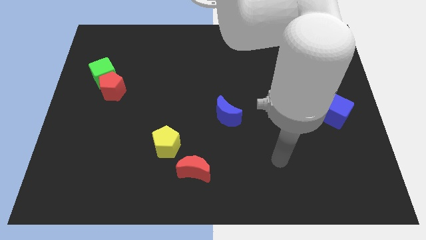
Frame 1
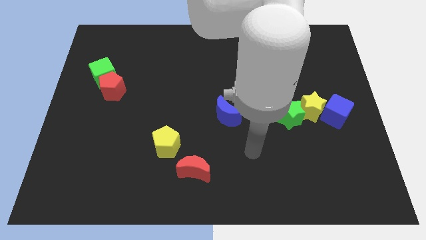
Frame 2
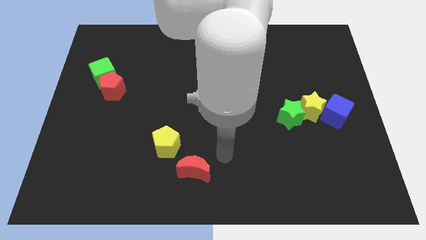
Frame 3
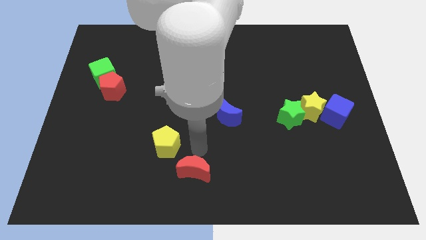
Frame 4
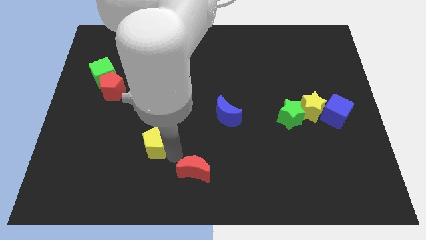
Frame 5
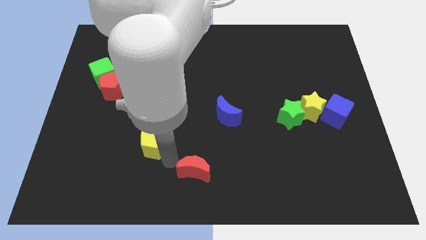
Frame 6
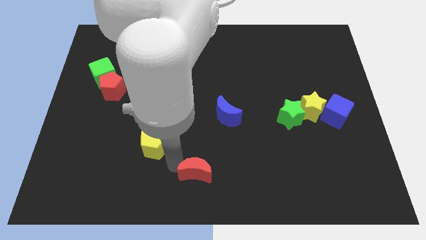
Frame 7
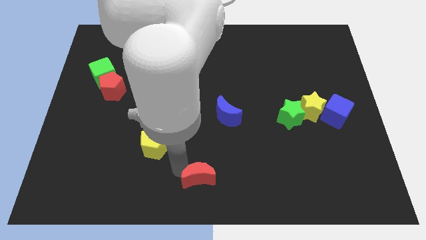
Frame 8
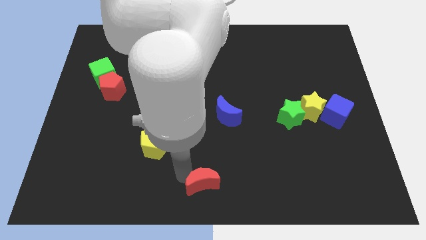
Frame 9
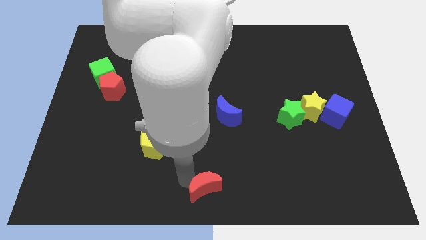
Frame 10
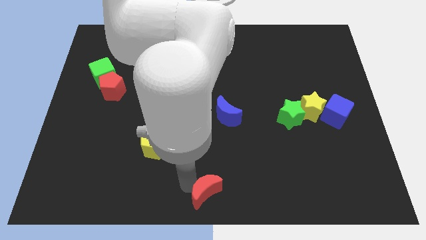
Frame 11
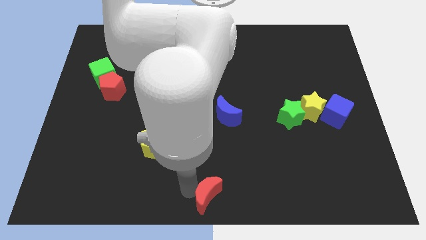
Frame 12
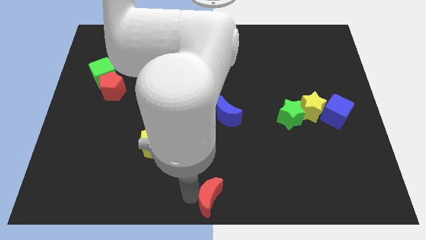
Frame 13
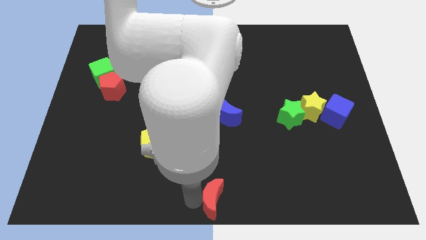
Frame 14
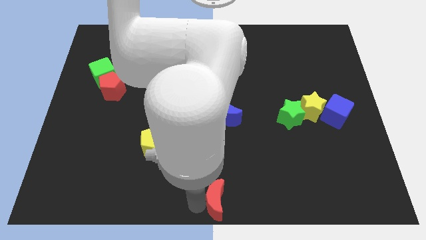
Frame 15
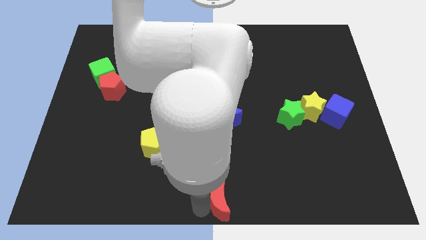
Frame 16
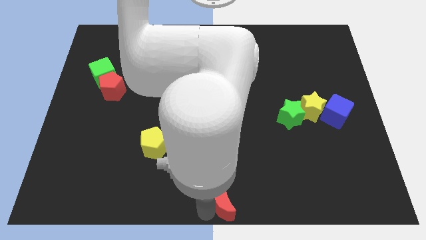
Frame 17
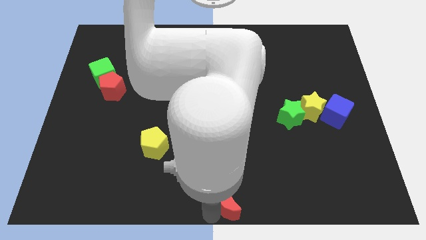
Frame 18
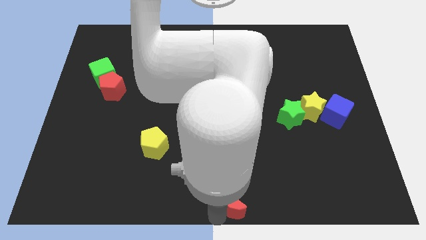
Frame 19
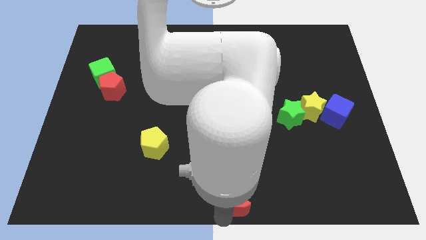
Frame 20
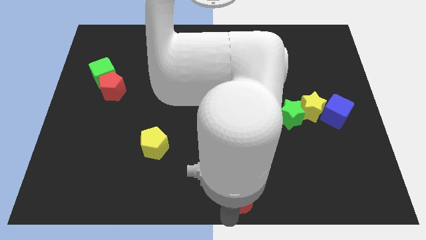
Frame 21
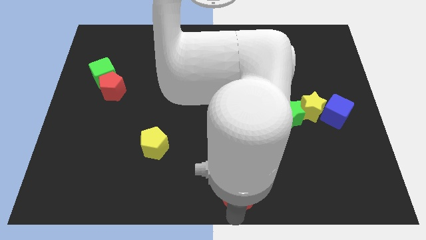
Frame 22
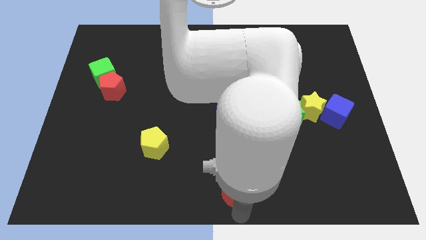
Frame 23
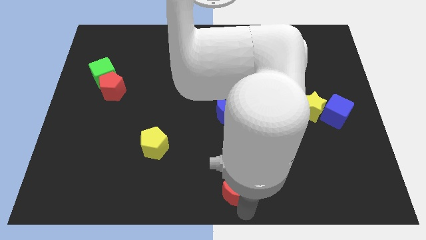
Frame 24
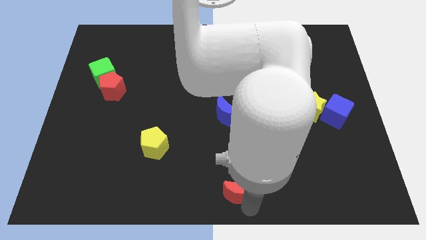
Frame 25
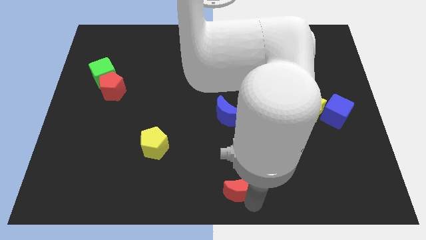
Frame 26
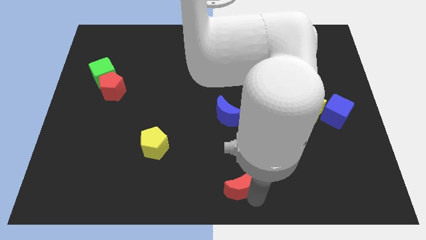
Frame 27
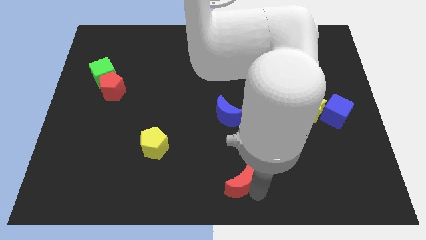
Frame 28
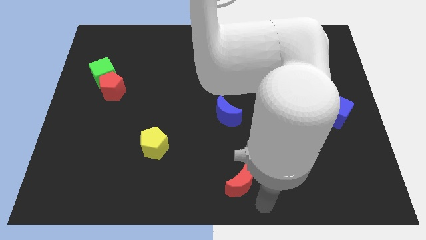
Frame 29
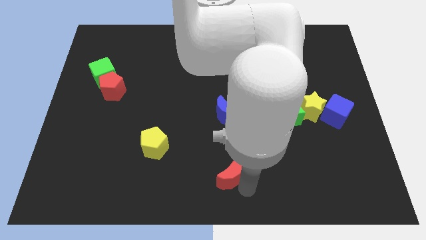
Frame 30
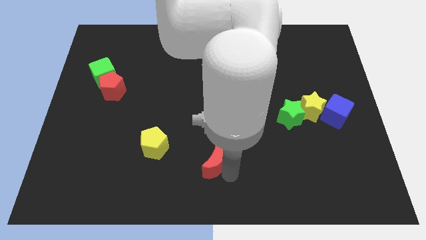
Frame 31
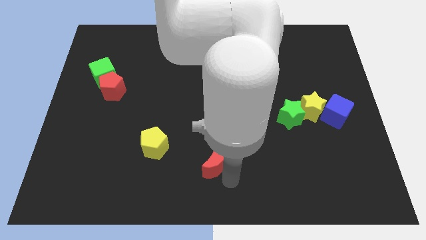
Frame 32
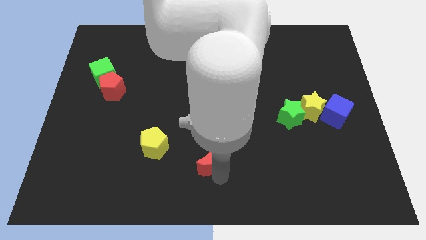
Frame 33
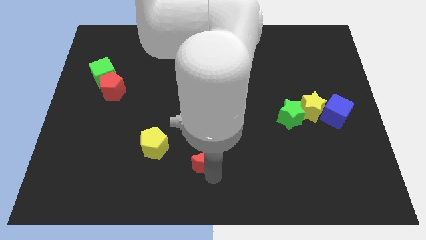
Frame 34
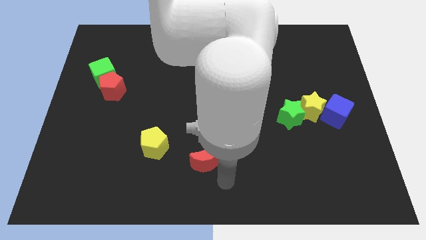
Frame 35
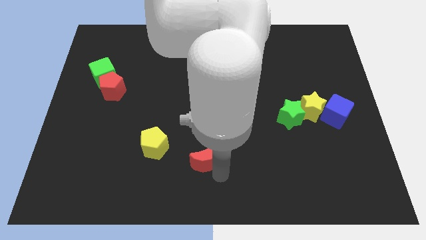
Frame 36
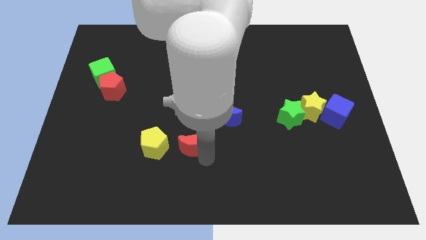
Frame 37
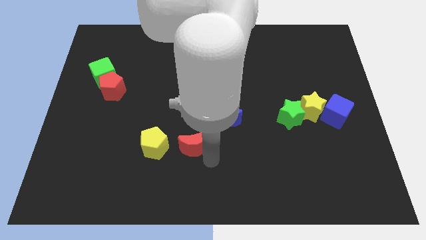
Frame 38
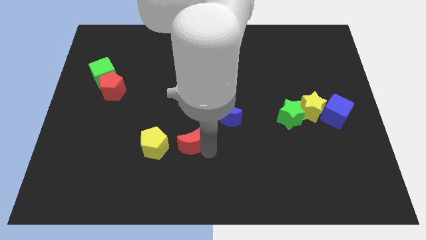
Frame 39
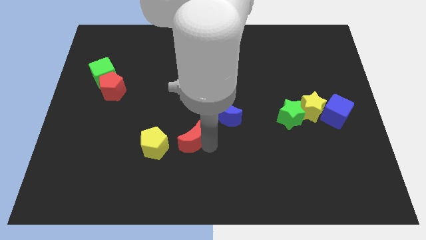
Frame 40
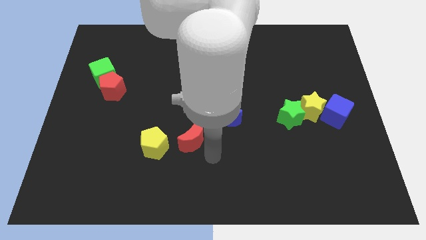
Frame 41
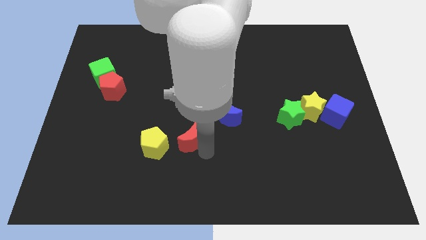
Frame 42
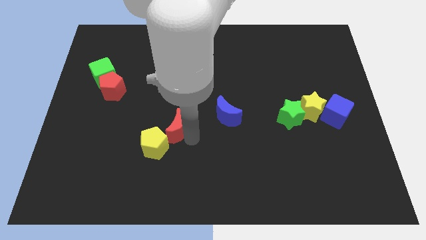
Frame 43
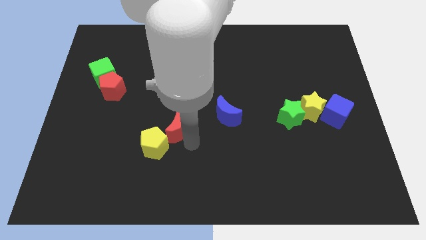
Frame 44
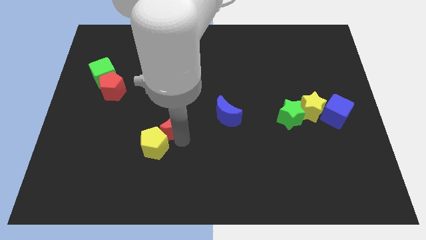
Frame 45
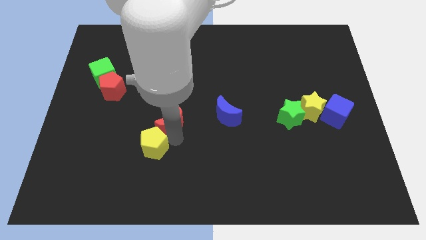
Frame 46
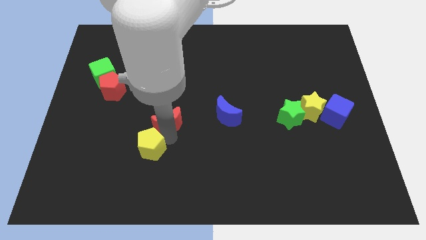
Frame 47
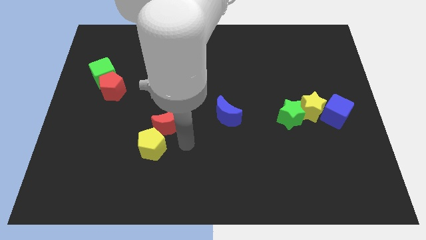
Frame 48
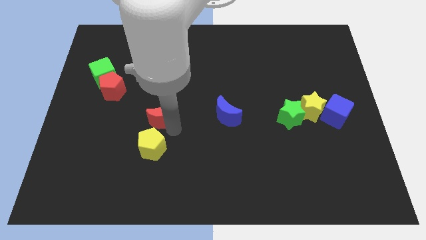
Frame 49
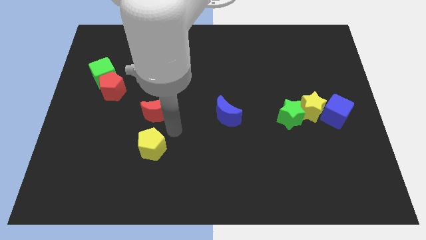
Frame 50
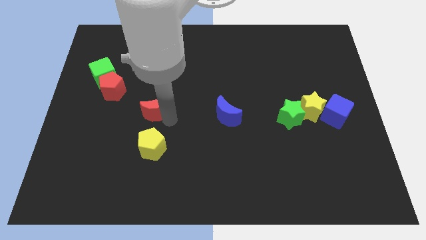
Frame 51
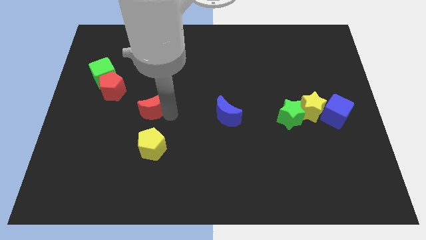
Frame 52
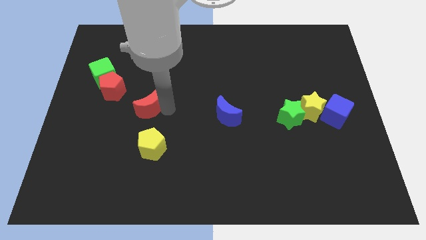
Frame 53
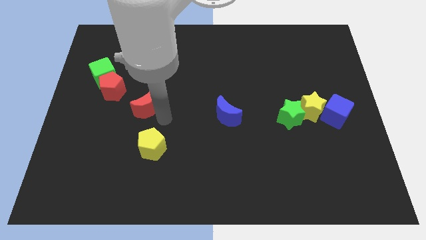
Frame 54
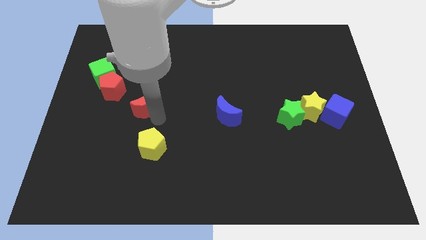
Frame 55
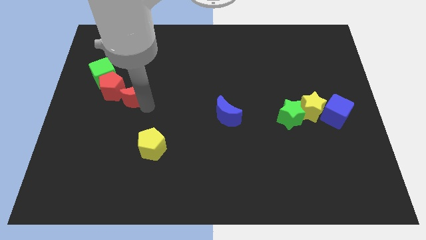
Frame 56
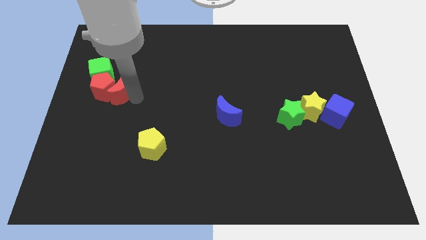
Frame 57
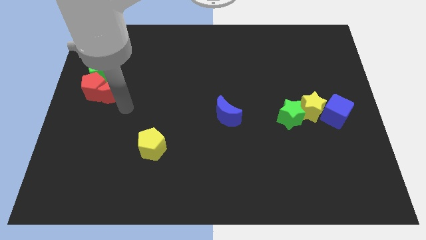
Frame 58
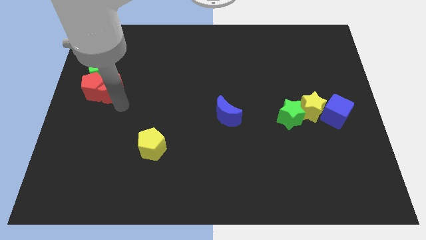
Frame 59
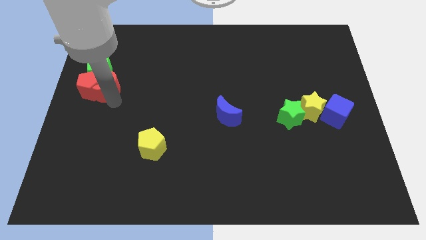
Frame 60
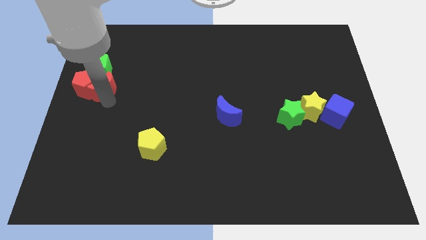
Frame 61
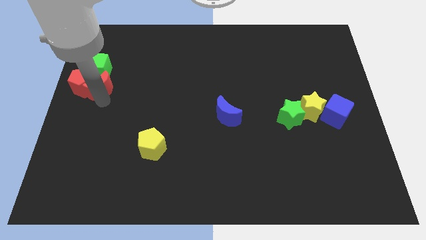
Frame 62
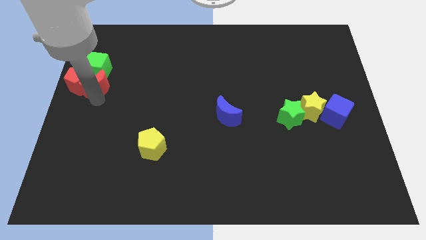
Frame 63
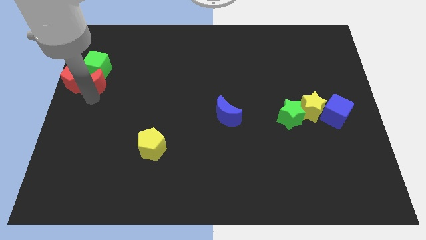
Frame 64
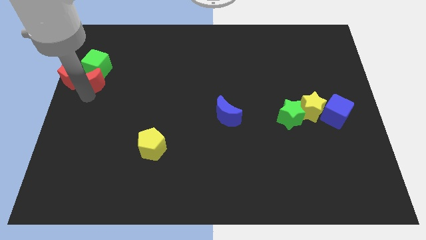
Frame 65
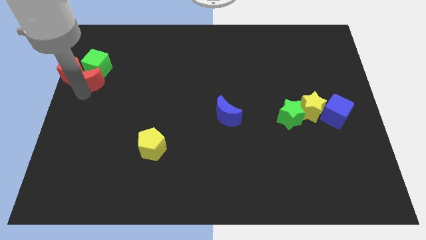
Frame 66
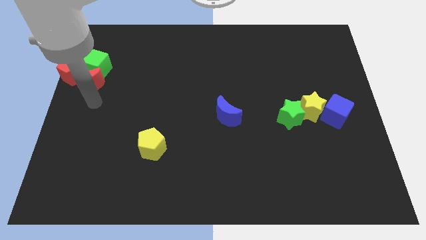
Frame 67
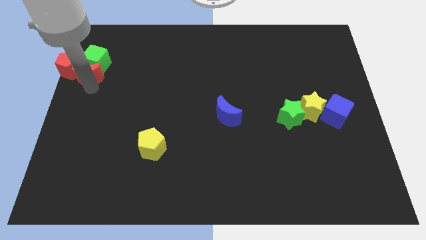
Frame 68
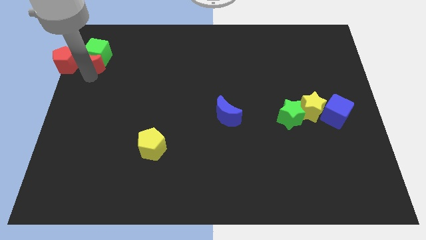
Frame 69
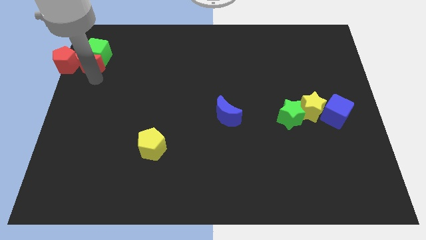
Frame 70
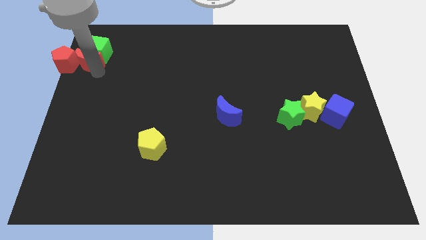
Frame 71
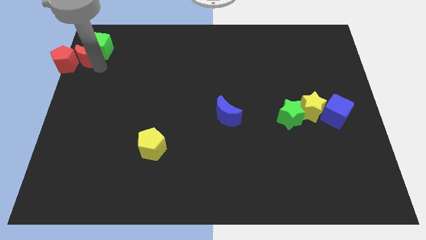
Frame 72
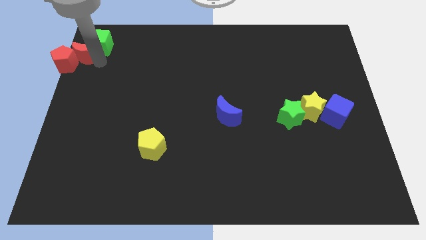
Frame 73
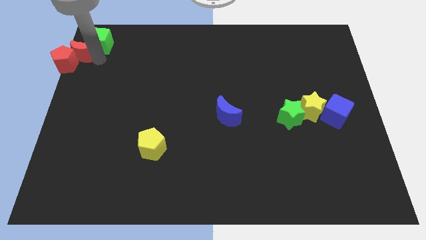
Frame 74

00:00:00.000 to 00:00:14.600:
move the red moon to the upper left corner
